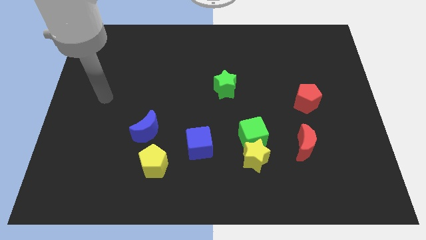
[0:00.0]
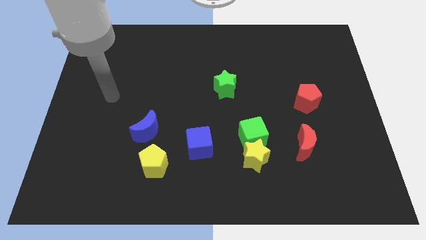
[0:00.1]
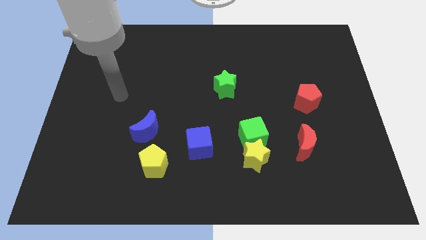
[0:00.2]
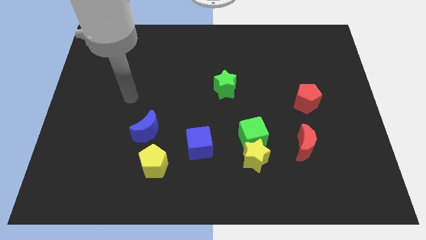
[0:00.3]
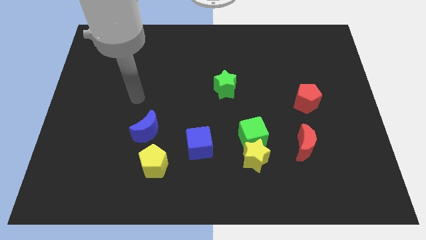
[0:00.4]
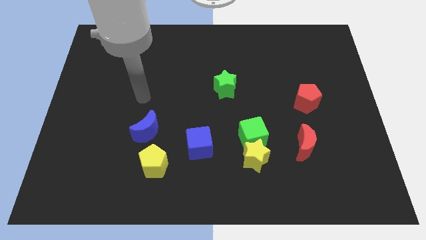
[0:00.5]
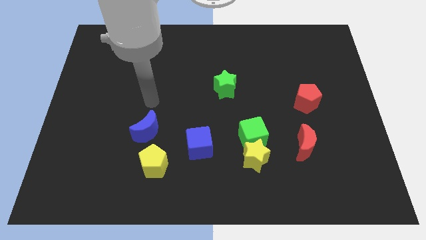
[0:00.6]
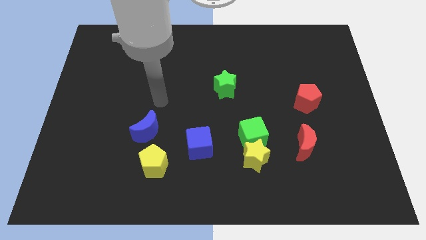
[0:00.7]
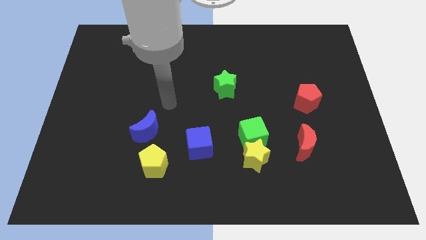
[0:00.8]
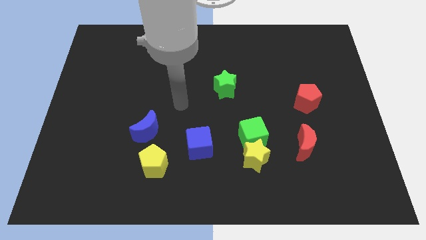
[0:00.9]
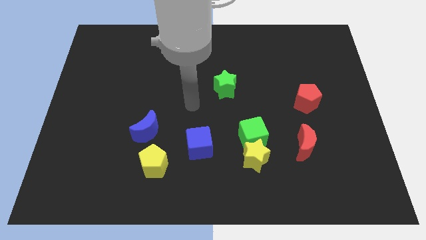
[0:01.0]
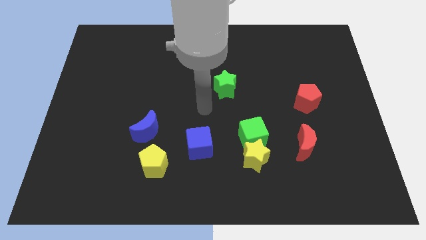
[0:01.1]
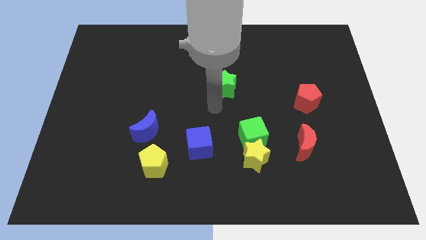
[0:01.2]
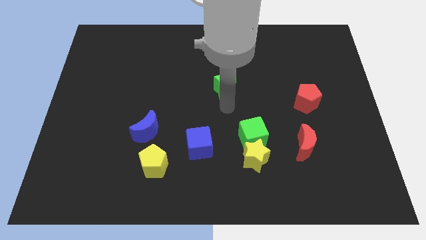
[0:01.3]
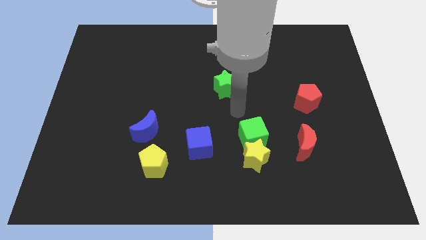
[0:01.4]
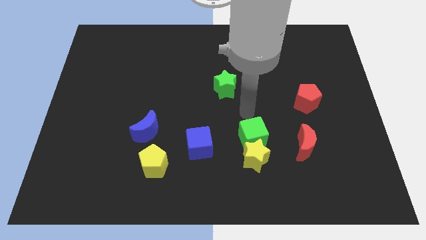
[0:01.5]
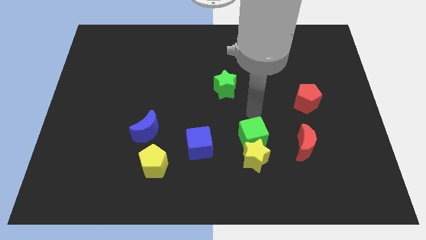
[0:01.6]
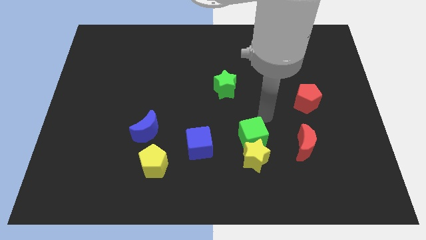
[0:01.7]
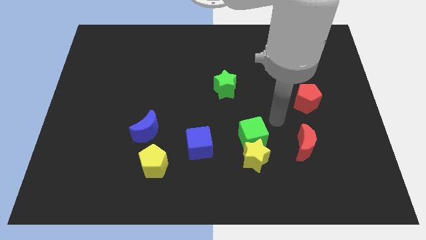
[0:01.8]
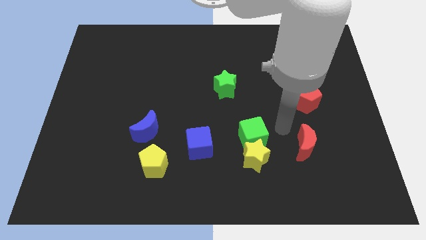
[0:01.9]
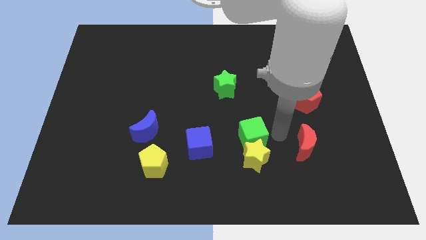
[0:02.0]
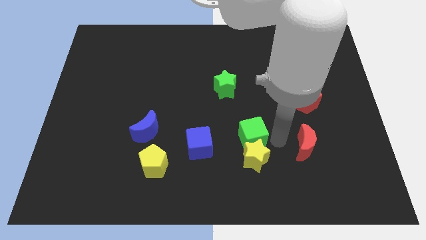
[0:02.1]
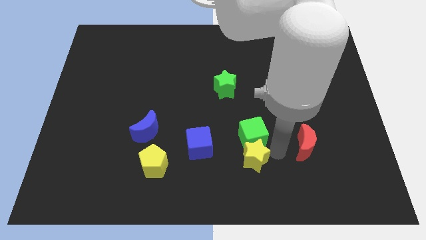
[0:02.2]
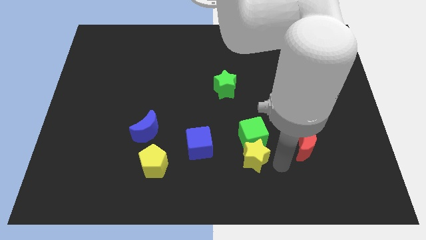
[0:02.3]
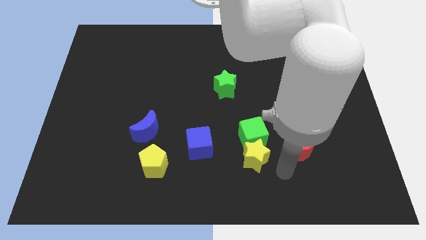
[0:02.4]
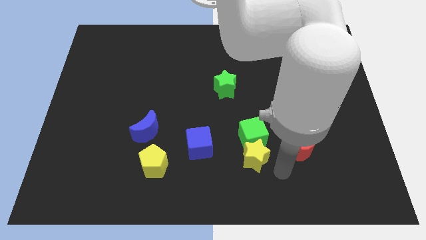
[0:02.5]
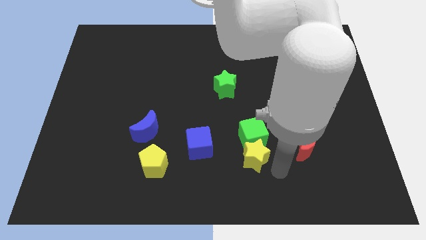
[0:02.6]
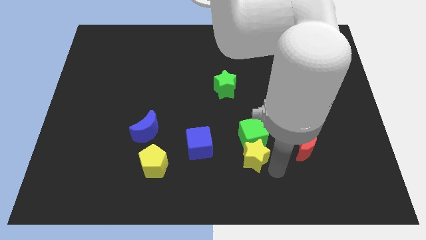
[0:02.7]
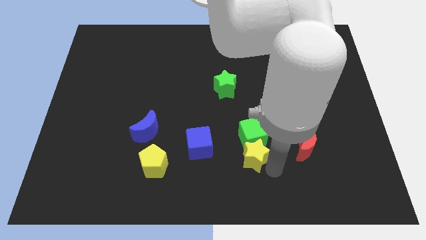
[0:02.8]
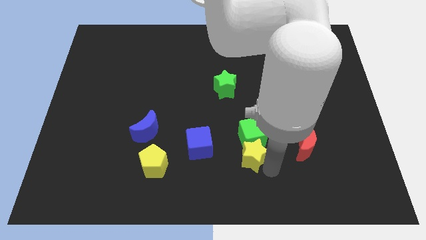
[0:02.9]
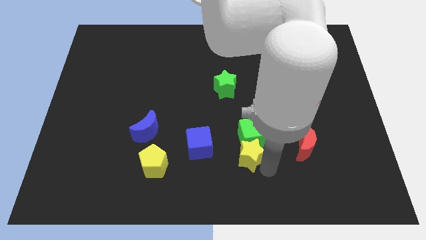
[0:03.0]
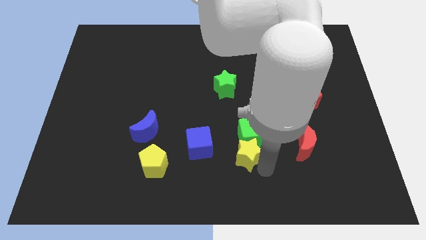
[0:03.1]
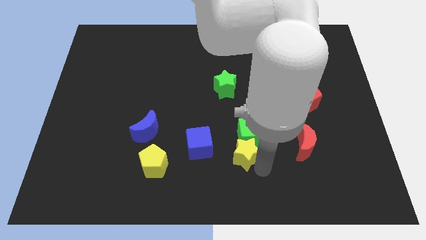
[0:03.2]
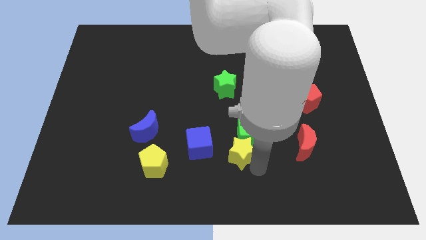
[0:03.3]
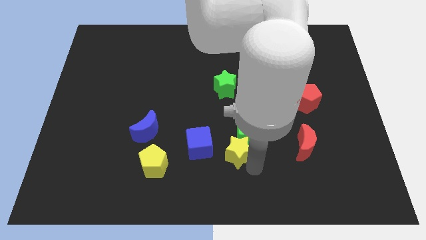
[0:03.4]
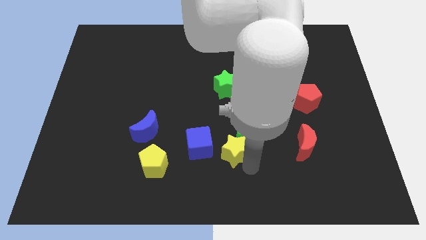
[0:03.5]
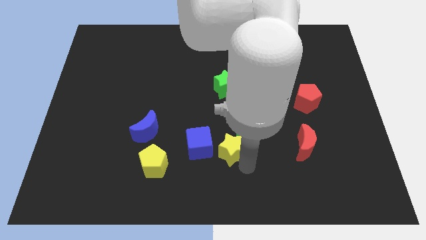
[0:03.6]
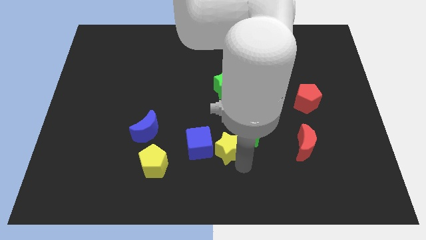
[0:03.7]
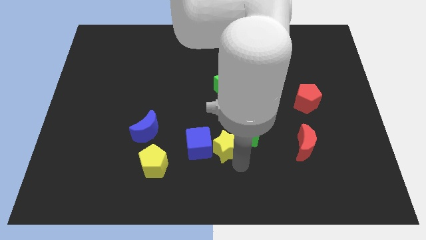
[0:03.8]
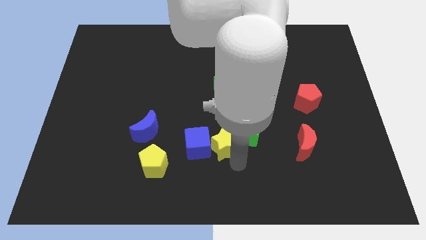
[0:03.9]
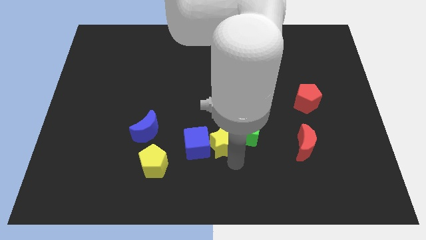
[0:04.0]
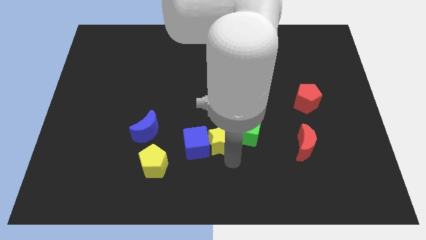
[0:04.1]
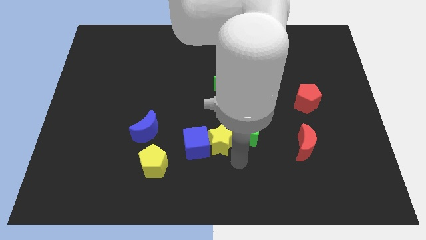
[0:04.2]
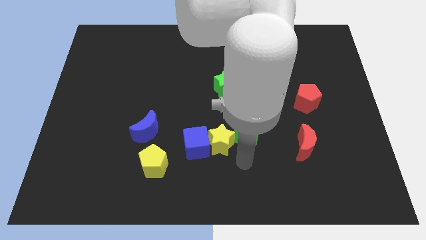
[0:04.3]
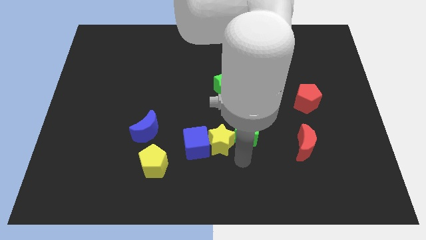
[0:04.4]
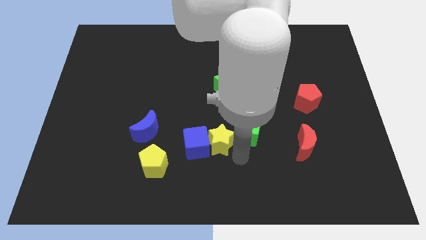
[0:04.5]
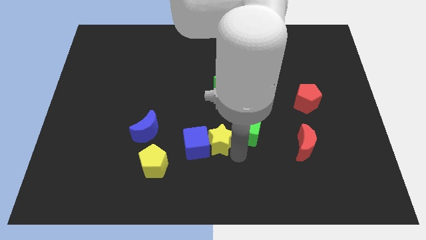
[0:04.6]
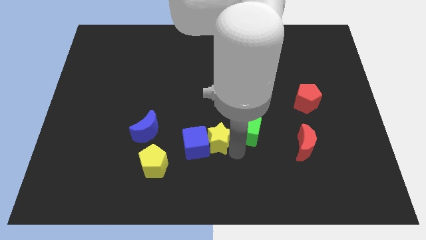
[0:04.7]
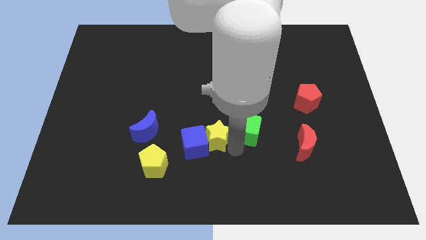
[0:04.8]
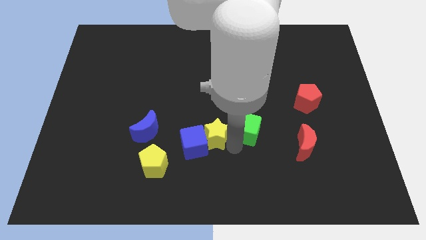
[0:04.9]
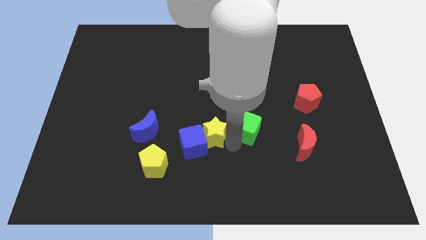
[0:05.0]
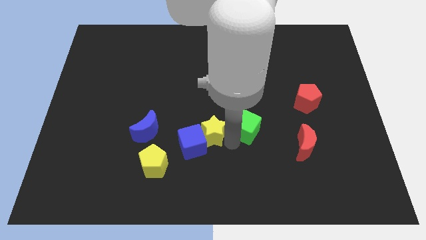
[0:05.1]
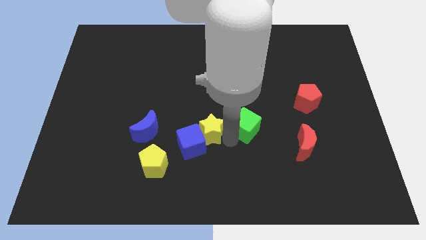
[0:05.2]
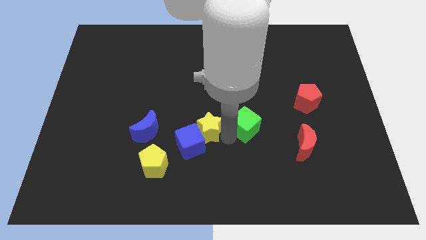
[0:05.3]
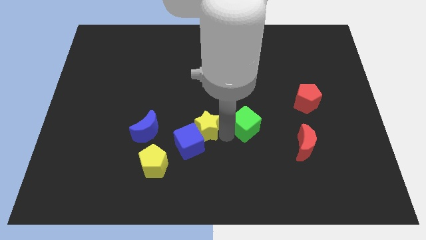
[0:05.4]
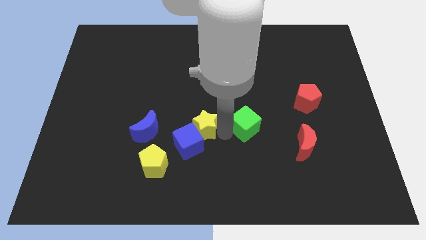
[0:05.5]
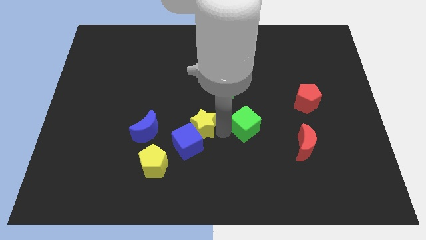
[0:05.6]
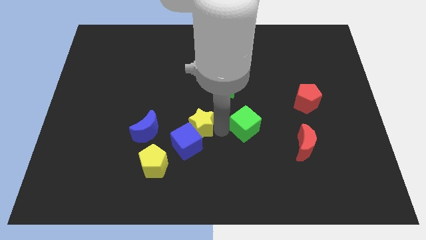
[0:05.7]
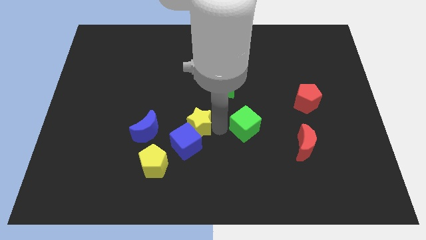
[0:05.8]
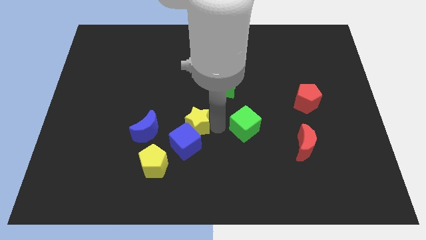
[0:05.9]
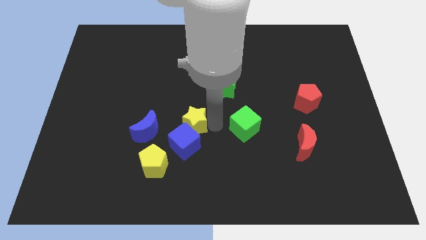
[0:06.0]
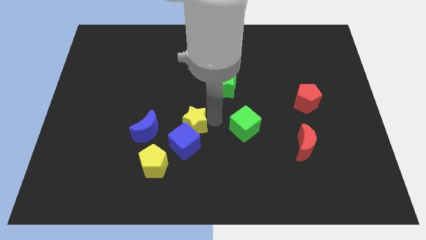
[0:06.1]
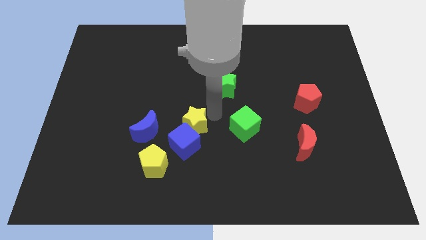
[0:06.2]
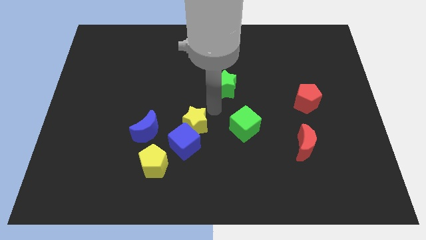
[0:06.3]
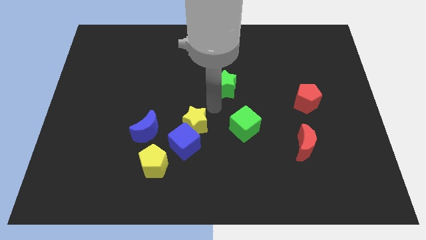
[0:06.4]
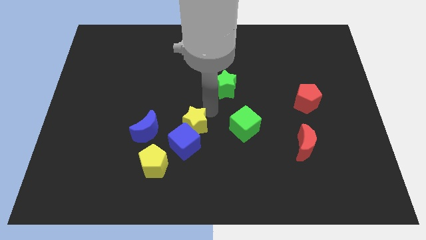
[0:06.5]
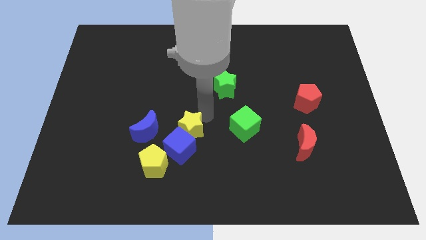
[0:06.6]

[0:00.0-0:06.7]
put the yellow star to the top right side of the yellow pentagon
